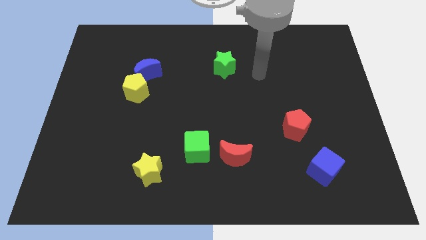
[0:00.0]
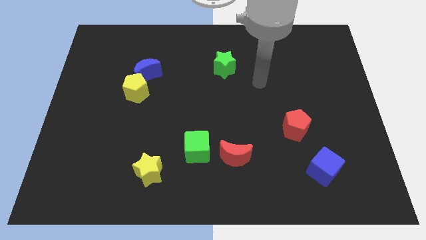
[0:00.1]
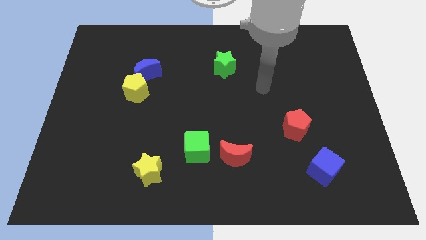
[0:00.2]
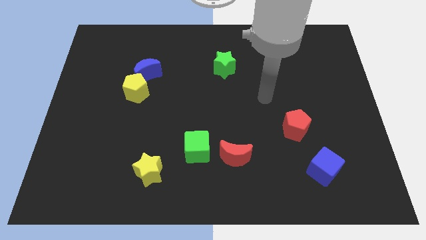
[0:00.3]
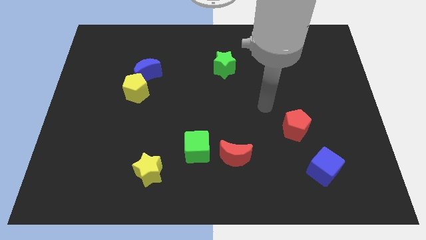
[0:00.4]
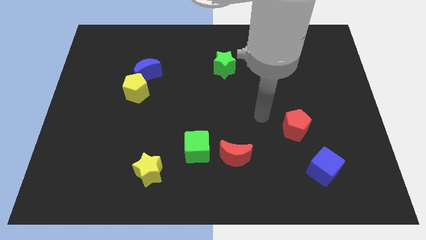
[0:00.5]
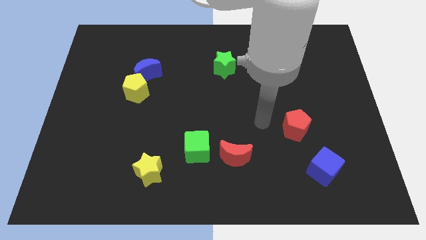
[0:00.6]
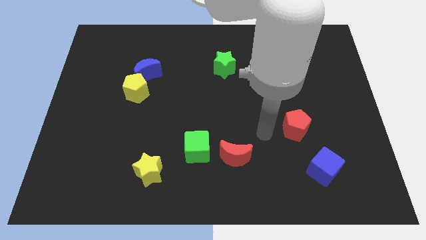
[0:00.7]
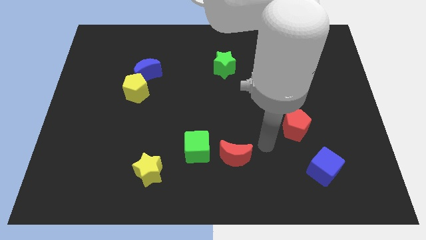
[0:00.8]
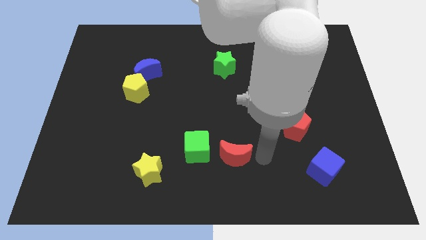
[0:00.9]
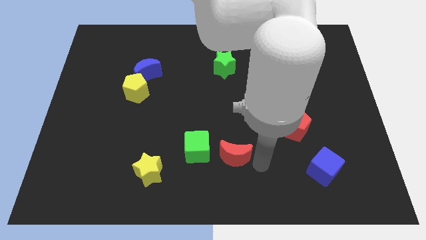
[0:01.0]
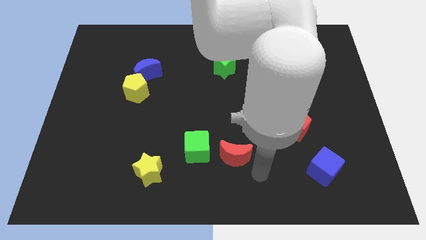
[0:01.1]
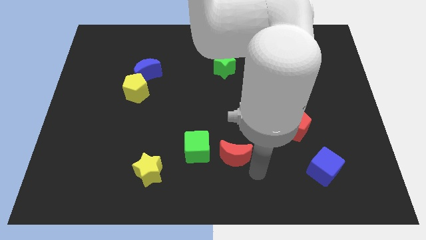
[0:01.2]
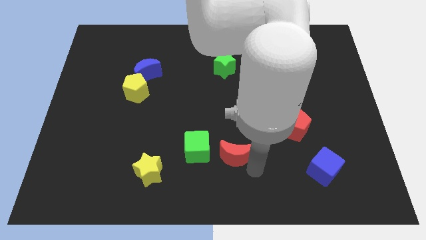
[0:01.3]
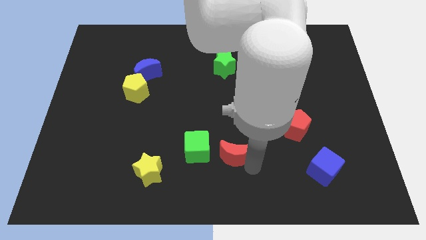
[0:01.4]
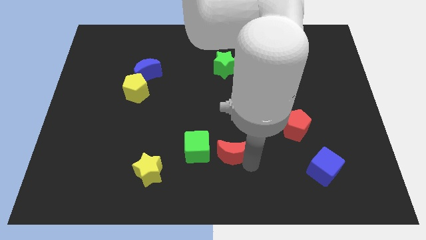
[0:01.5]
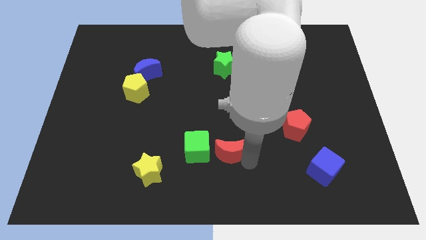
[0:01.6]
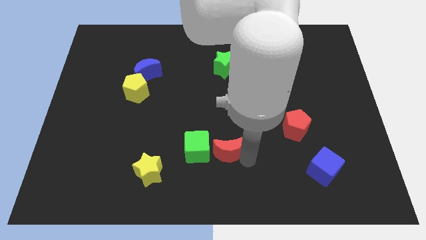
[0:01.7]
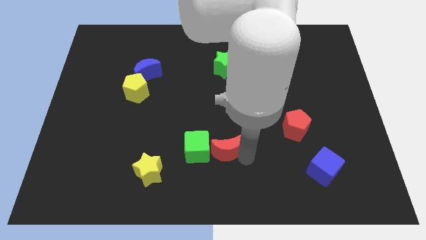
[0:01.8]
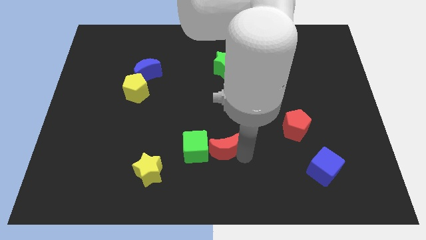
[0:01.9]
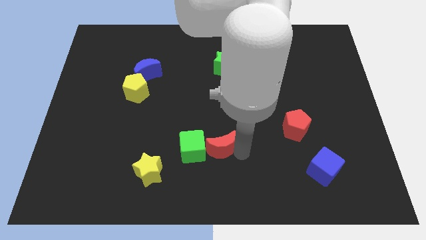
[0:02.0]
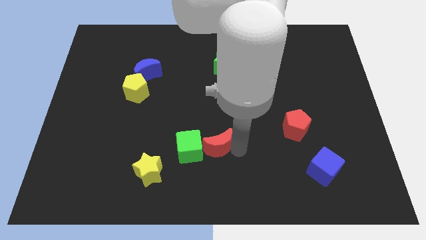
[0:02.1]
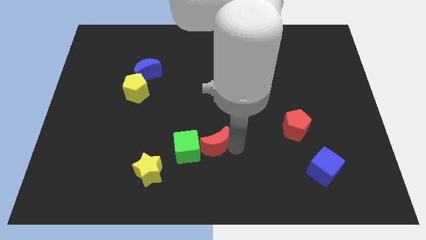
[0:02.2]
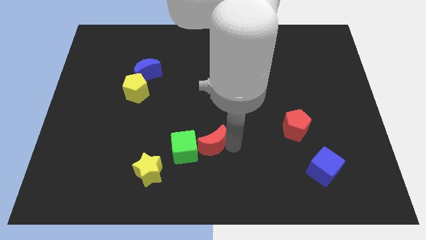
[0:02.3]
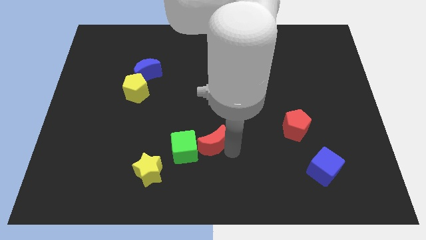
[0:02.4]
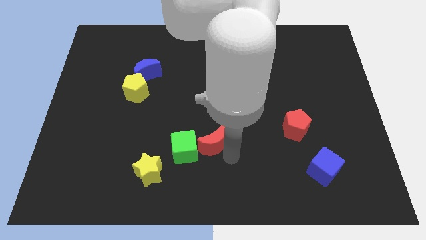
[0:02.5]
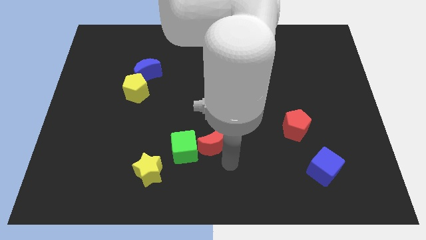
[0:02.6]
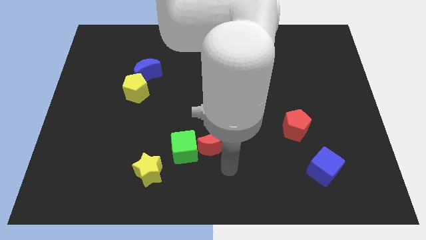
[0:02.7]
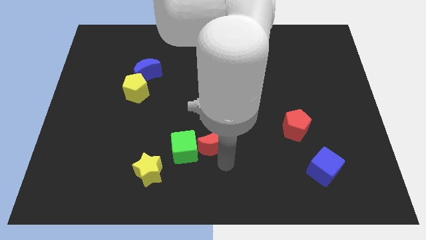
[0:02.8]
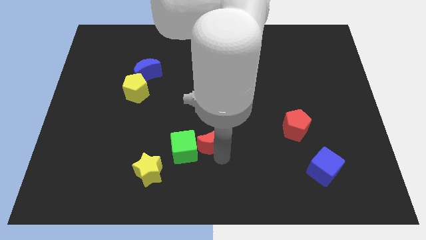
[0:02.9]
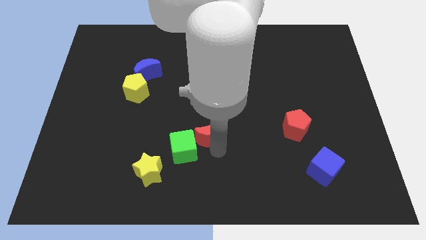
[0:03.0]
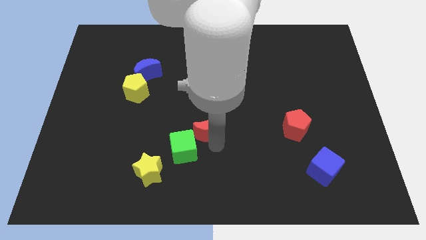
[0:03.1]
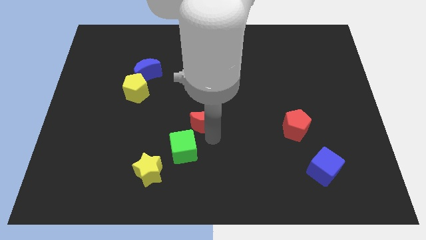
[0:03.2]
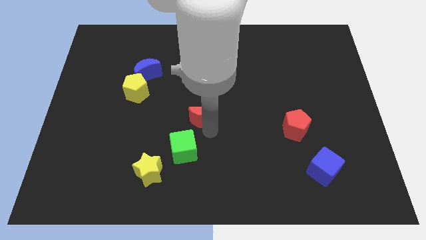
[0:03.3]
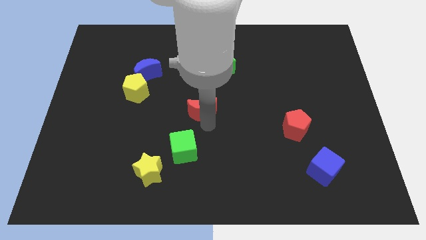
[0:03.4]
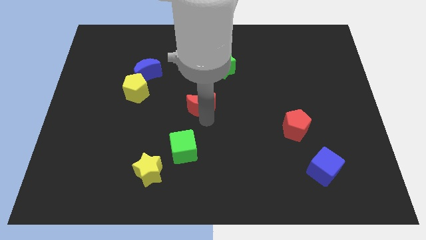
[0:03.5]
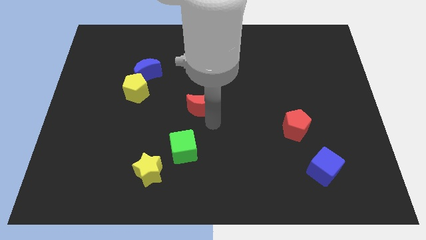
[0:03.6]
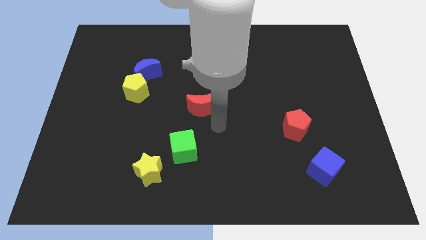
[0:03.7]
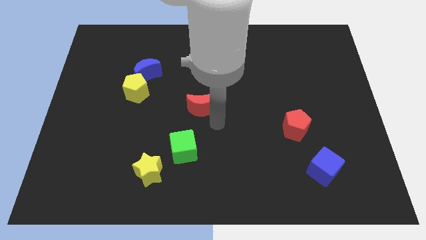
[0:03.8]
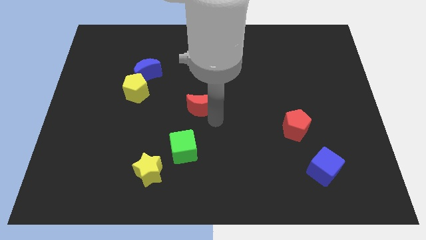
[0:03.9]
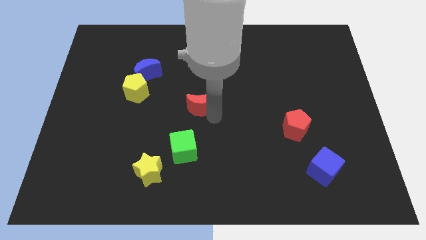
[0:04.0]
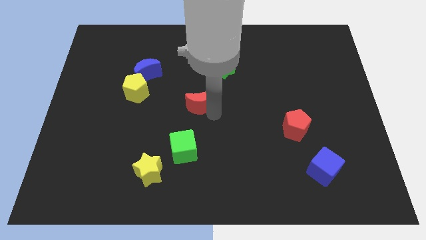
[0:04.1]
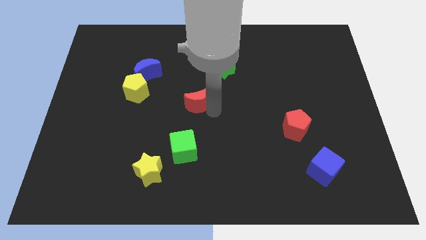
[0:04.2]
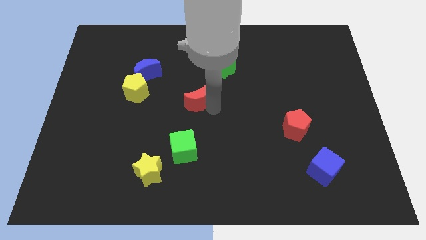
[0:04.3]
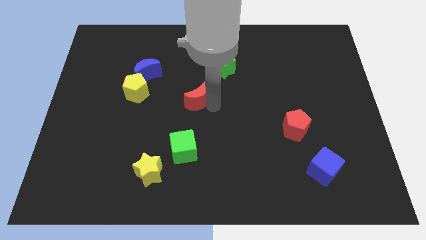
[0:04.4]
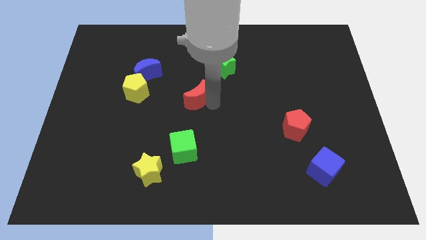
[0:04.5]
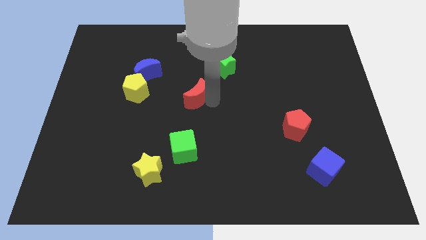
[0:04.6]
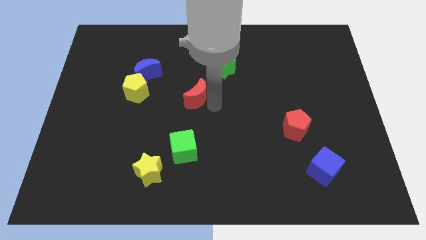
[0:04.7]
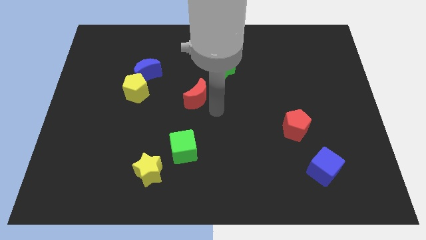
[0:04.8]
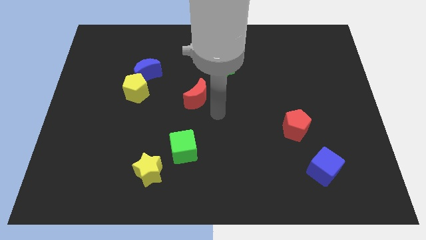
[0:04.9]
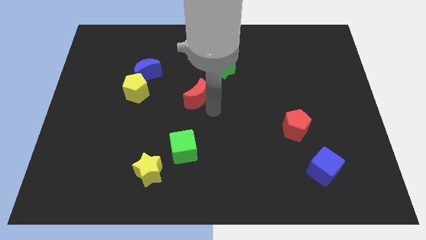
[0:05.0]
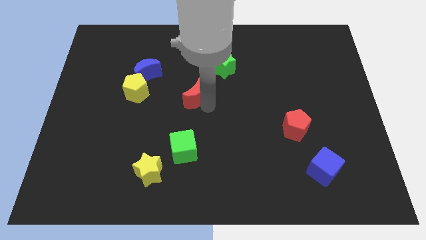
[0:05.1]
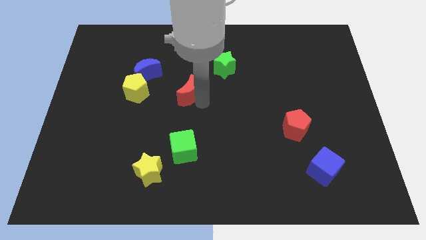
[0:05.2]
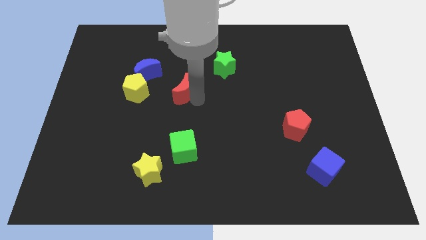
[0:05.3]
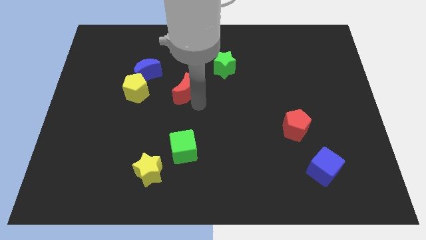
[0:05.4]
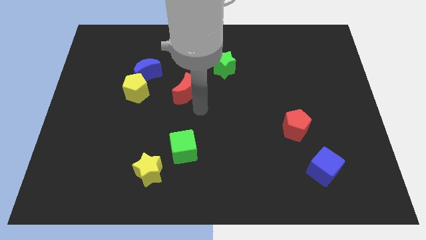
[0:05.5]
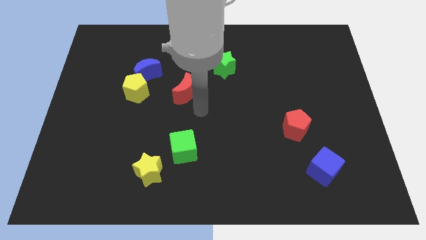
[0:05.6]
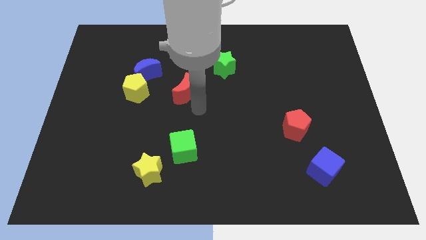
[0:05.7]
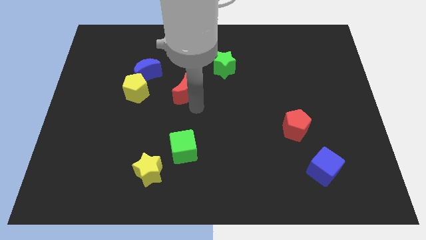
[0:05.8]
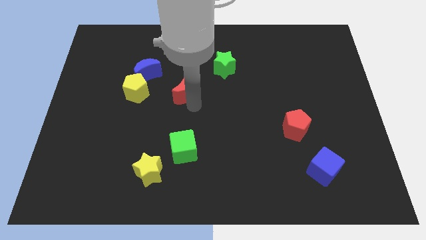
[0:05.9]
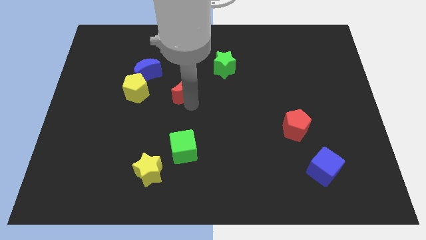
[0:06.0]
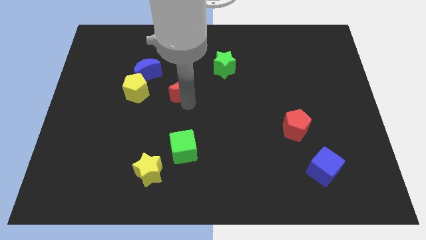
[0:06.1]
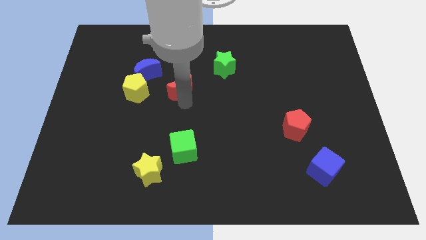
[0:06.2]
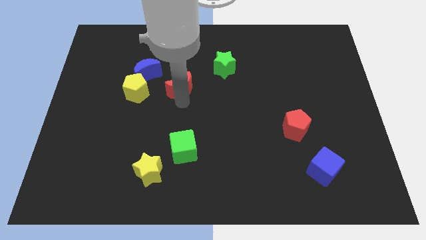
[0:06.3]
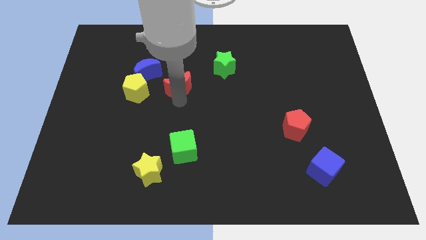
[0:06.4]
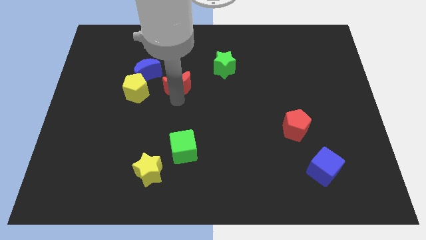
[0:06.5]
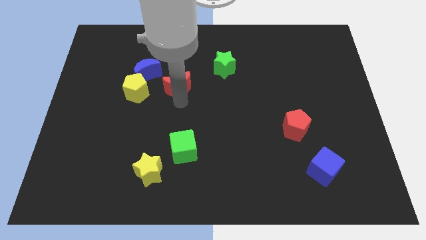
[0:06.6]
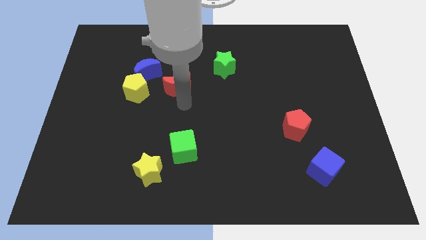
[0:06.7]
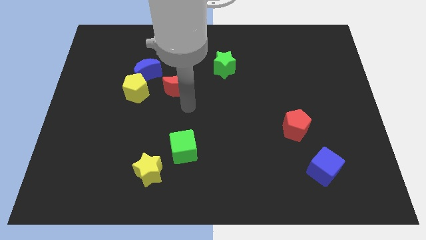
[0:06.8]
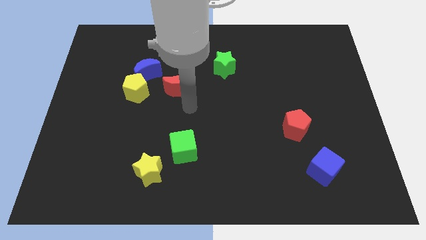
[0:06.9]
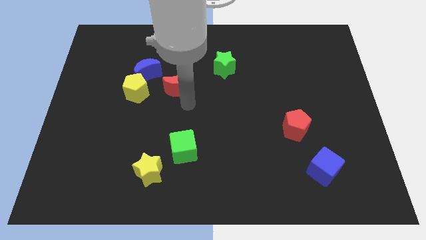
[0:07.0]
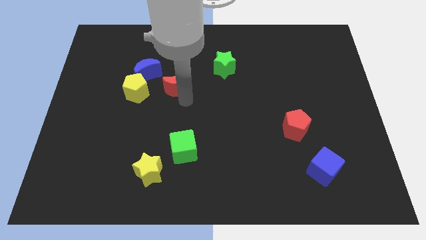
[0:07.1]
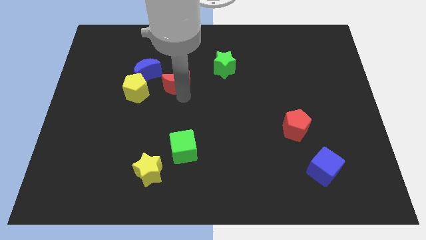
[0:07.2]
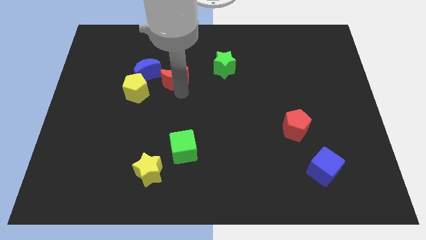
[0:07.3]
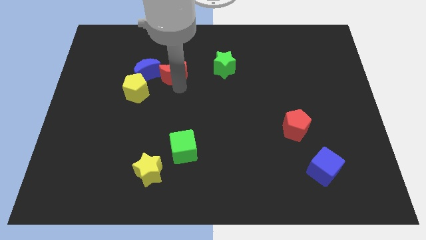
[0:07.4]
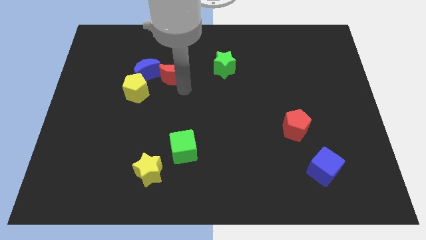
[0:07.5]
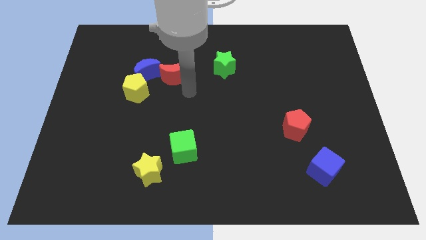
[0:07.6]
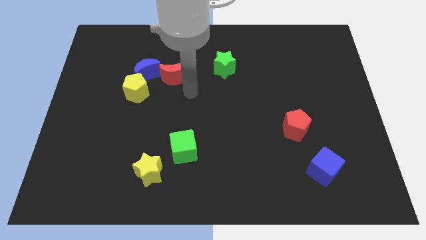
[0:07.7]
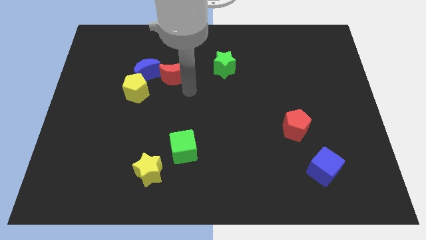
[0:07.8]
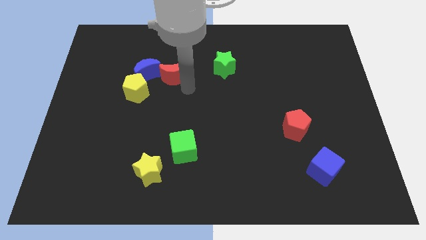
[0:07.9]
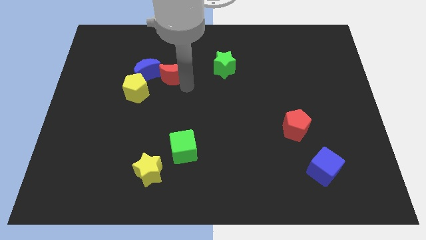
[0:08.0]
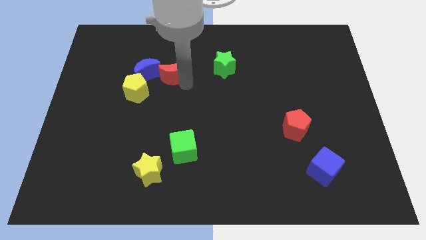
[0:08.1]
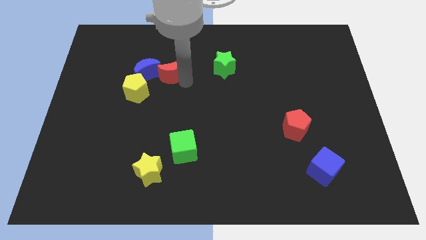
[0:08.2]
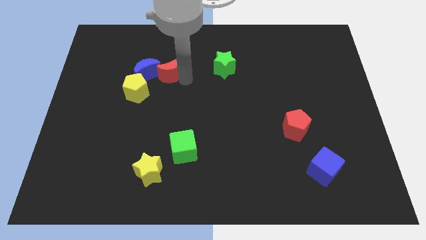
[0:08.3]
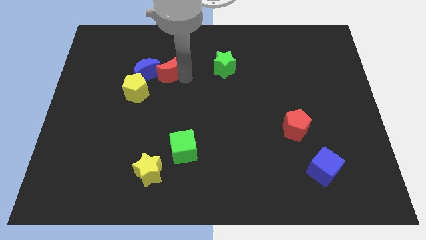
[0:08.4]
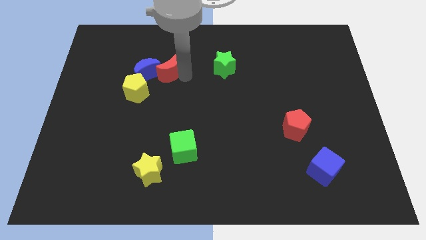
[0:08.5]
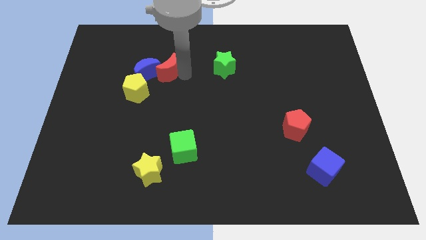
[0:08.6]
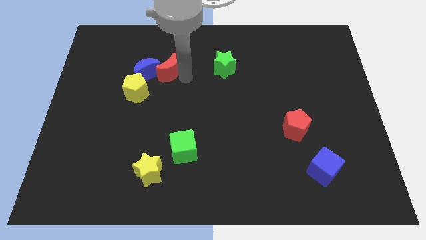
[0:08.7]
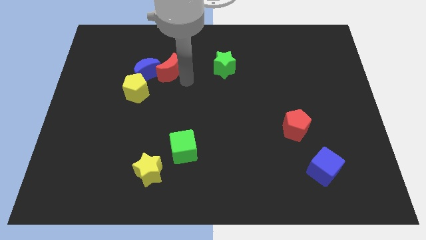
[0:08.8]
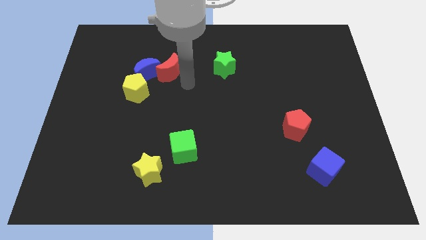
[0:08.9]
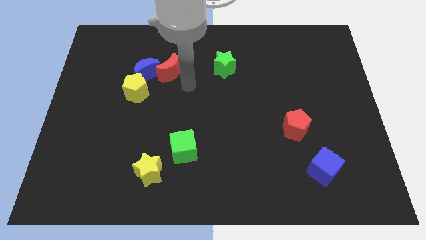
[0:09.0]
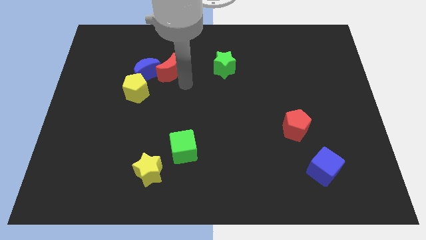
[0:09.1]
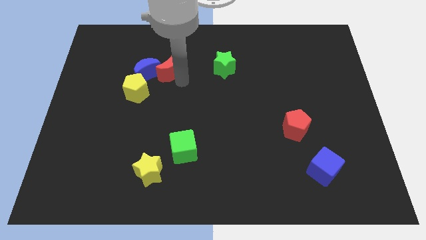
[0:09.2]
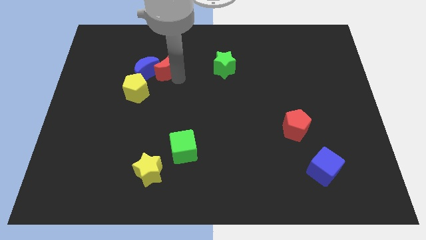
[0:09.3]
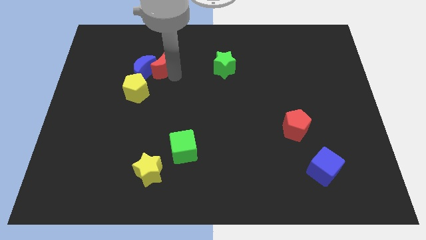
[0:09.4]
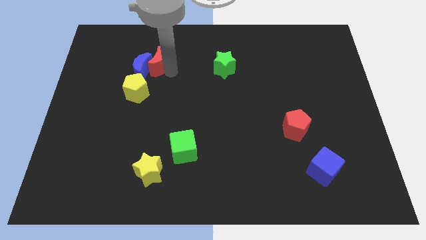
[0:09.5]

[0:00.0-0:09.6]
slide the red moon to the top of the yellow pentagon
